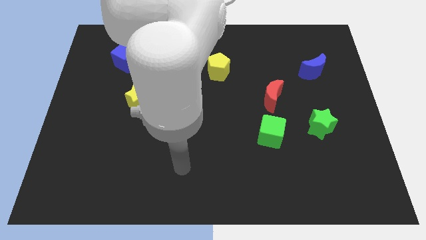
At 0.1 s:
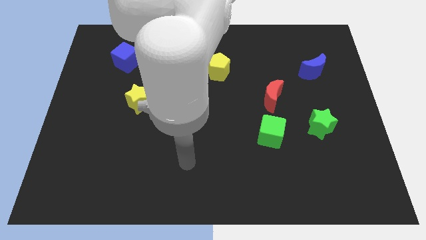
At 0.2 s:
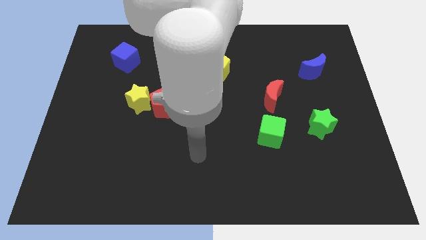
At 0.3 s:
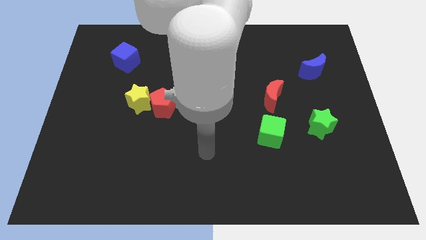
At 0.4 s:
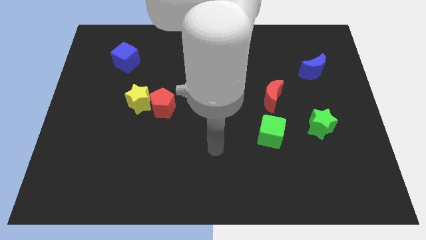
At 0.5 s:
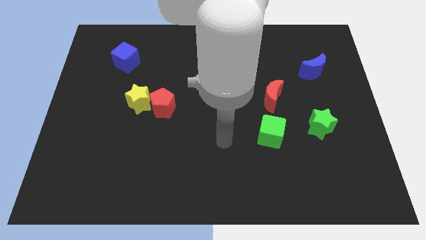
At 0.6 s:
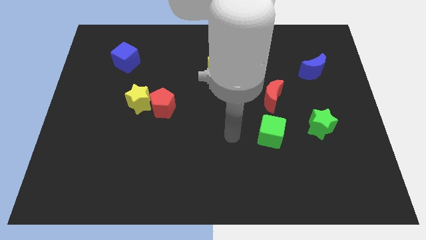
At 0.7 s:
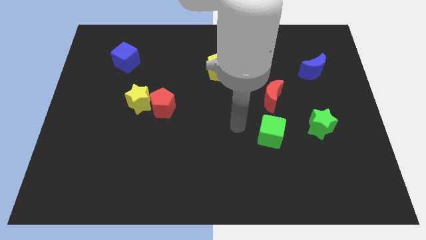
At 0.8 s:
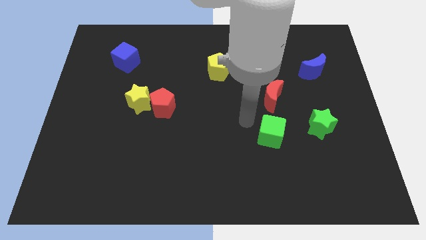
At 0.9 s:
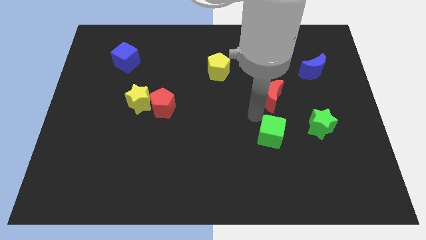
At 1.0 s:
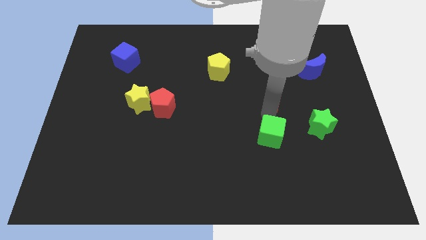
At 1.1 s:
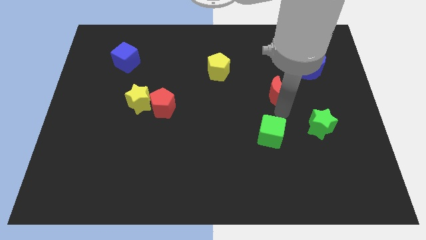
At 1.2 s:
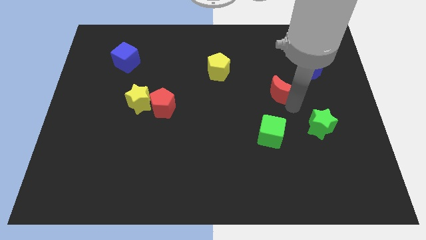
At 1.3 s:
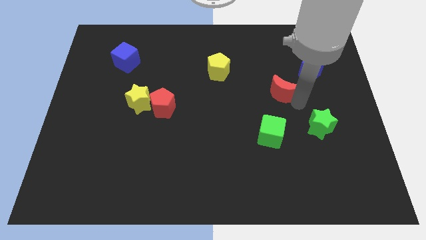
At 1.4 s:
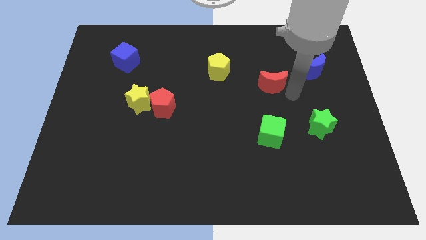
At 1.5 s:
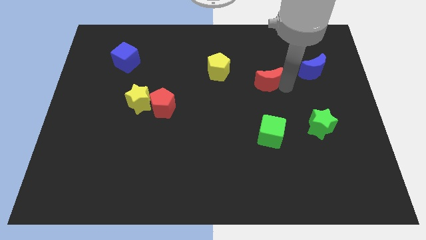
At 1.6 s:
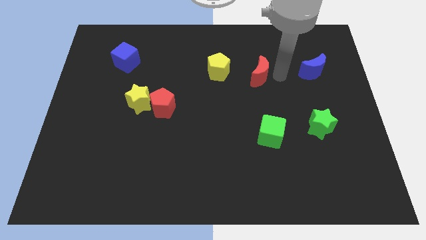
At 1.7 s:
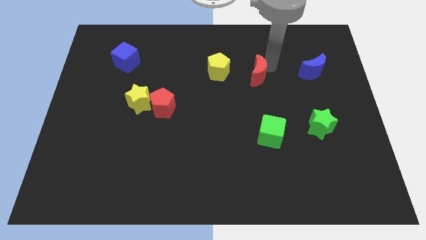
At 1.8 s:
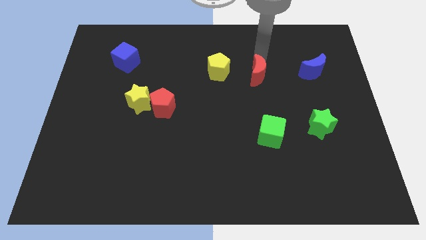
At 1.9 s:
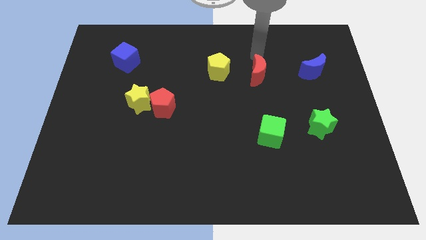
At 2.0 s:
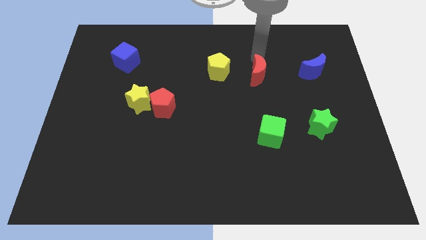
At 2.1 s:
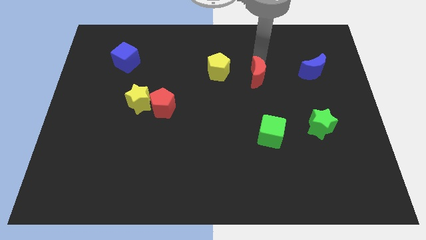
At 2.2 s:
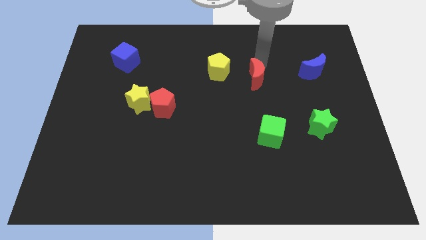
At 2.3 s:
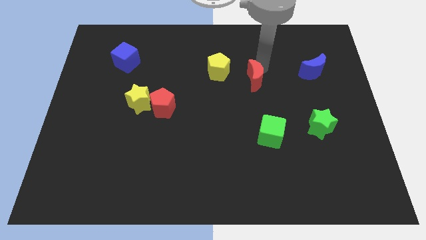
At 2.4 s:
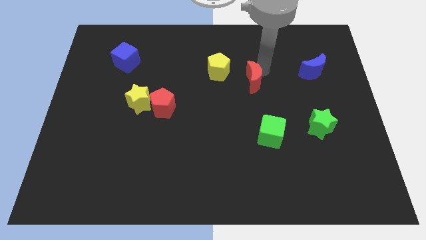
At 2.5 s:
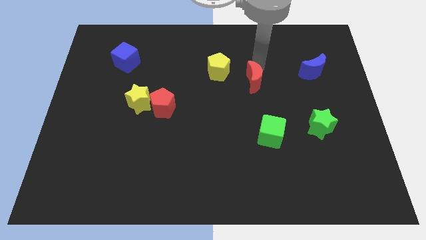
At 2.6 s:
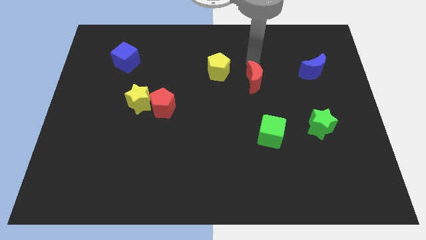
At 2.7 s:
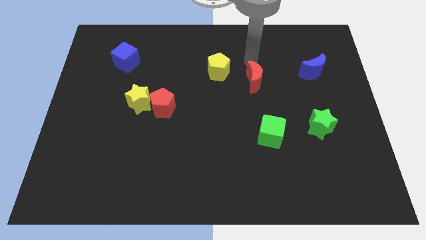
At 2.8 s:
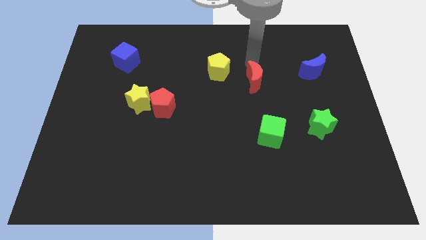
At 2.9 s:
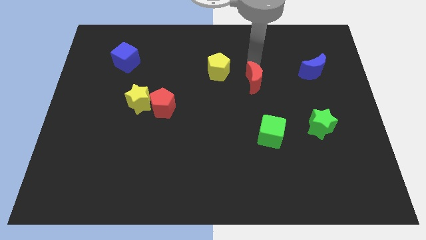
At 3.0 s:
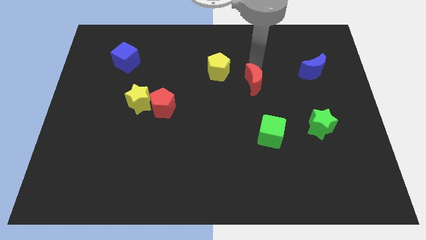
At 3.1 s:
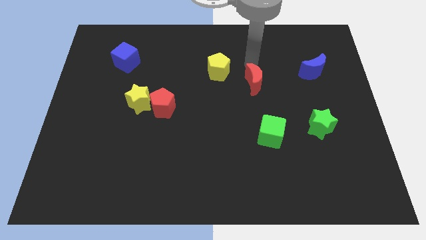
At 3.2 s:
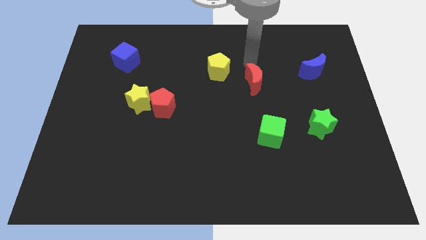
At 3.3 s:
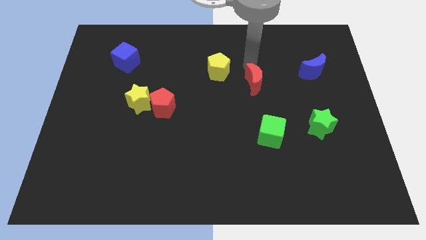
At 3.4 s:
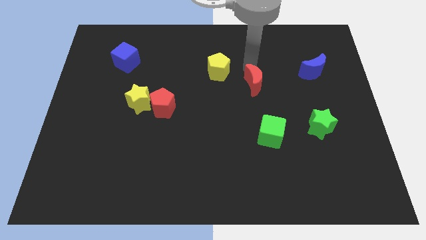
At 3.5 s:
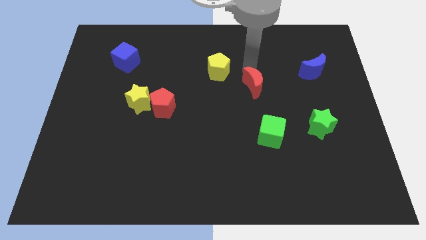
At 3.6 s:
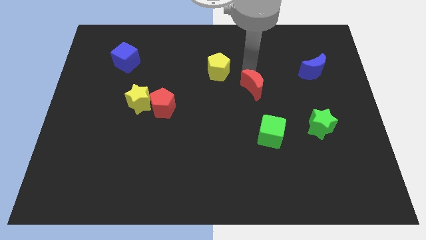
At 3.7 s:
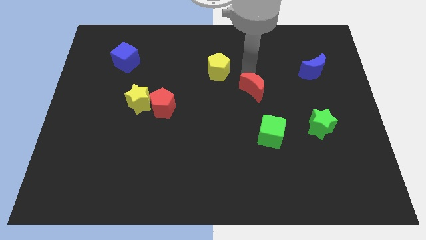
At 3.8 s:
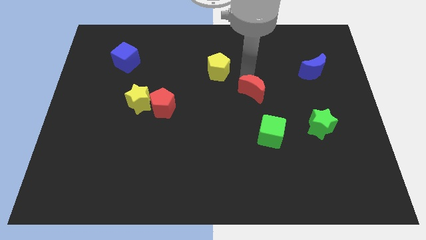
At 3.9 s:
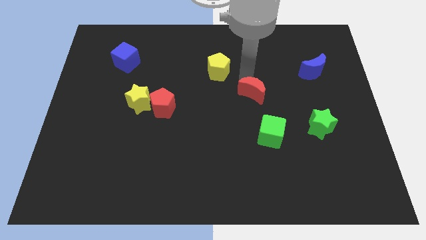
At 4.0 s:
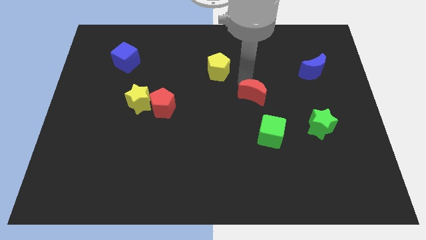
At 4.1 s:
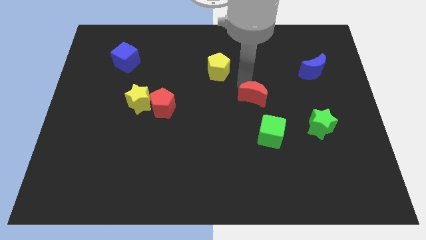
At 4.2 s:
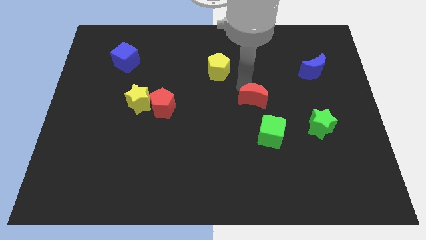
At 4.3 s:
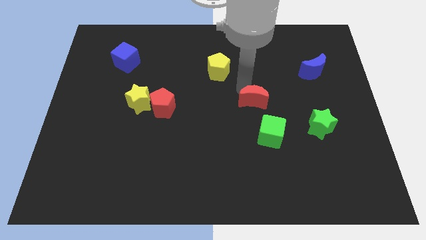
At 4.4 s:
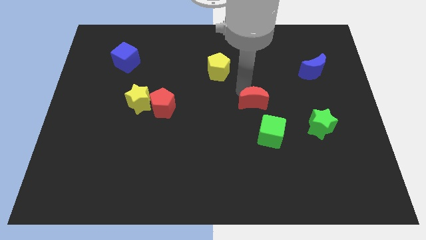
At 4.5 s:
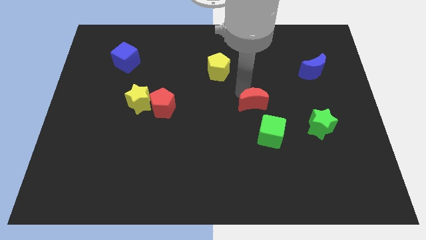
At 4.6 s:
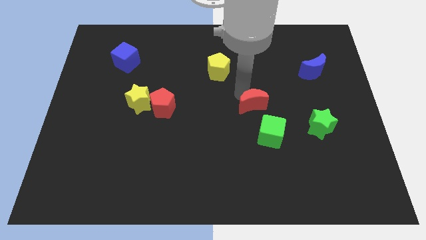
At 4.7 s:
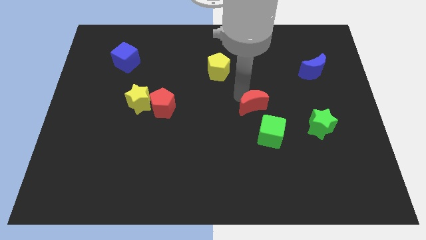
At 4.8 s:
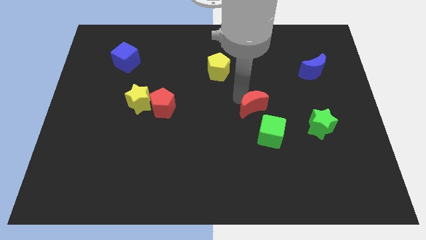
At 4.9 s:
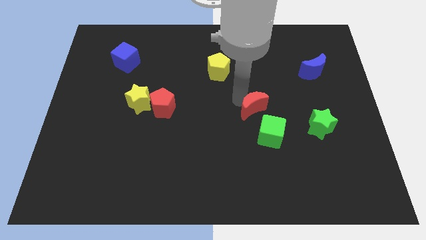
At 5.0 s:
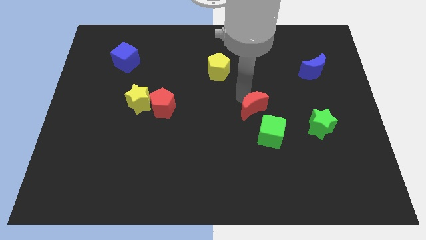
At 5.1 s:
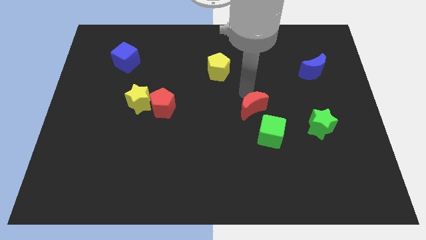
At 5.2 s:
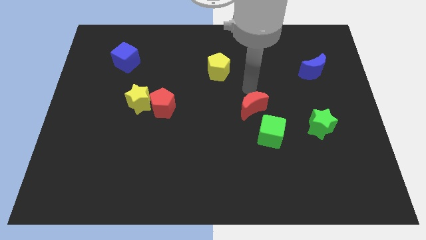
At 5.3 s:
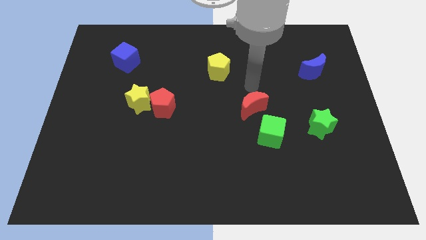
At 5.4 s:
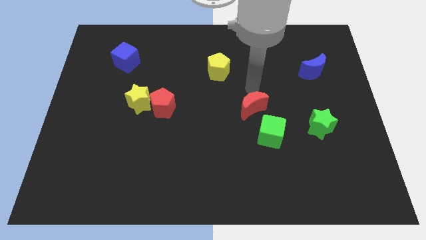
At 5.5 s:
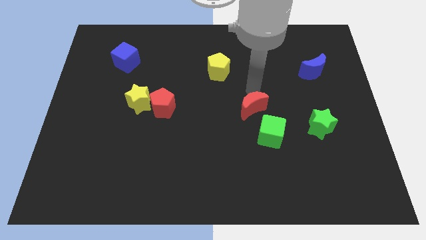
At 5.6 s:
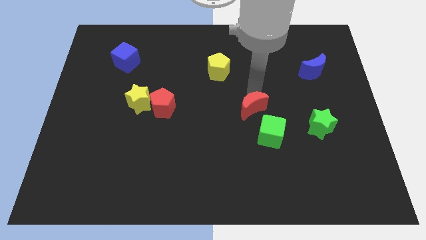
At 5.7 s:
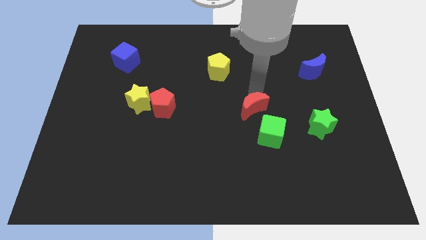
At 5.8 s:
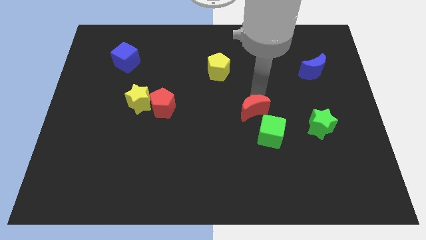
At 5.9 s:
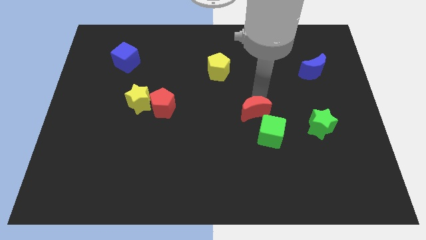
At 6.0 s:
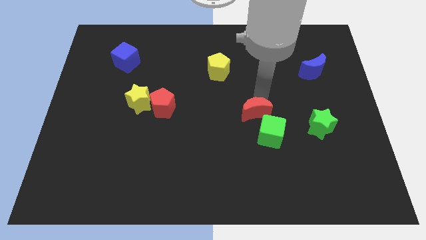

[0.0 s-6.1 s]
slide the red moon left of the green star
